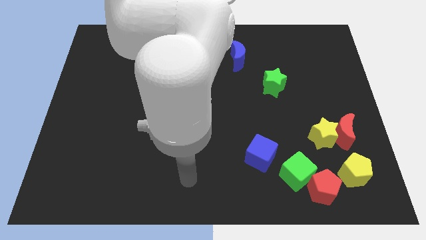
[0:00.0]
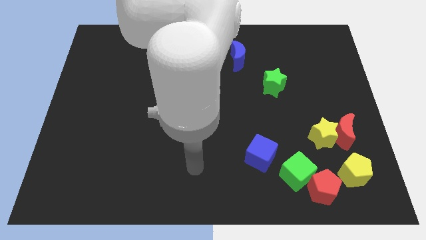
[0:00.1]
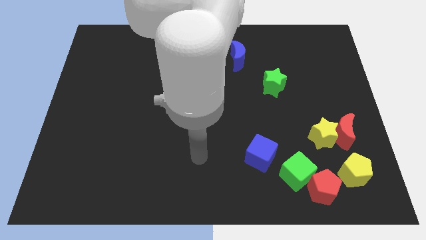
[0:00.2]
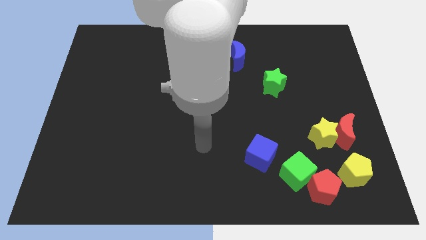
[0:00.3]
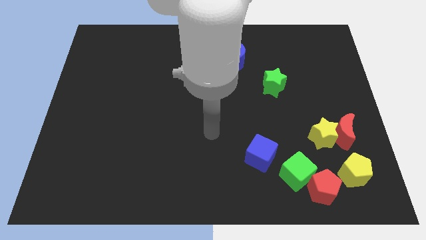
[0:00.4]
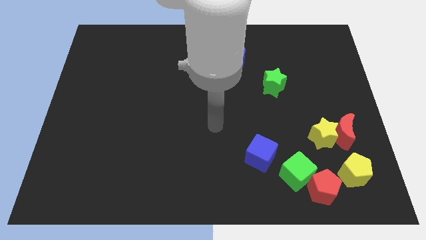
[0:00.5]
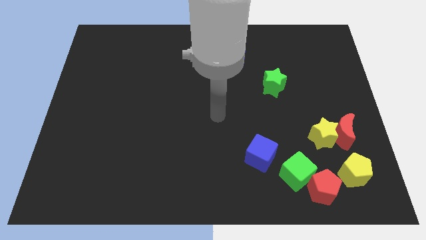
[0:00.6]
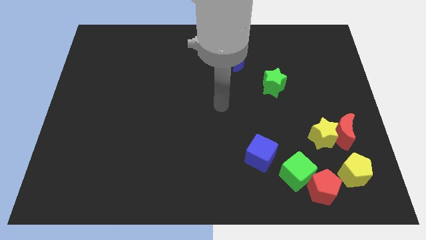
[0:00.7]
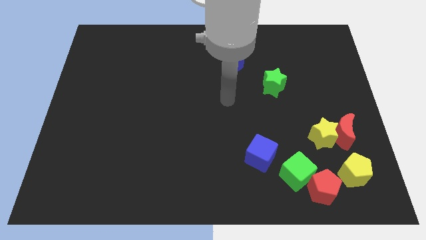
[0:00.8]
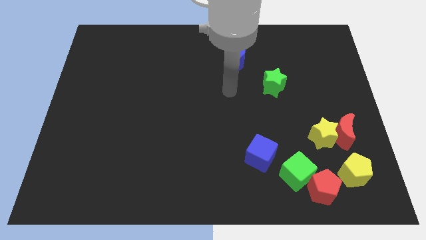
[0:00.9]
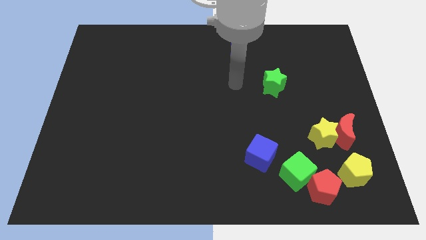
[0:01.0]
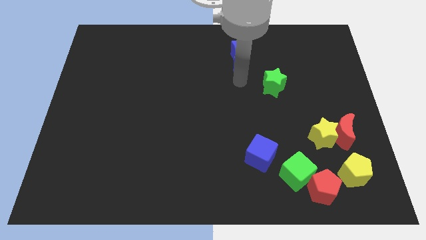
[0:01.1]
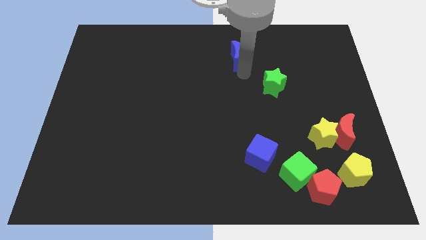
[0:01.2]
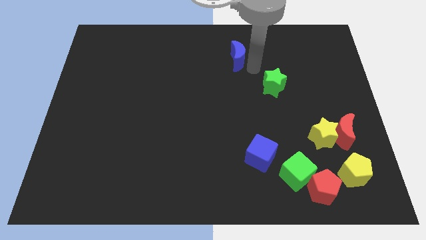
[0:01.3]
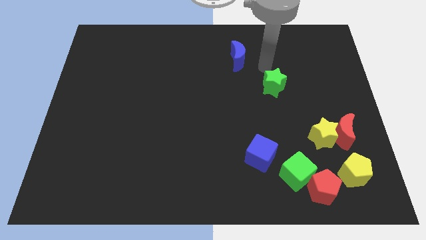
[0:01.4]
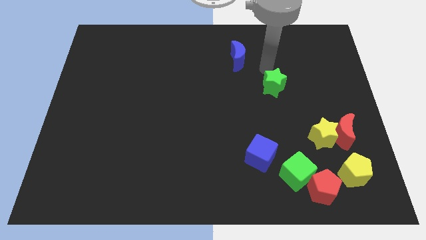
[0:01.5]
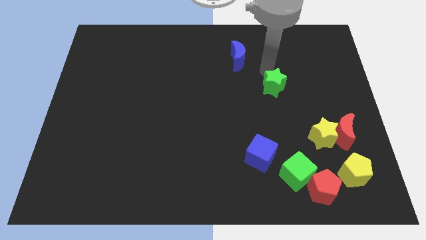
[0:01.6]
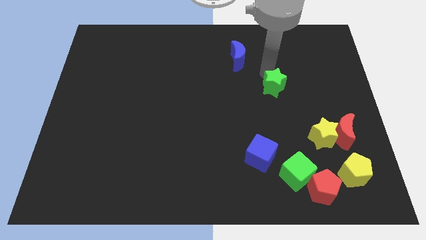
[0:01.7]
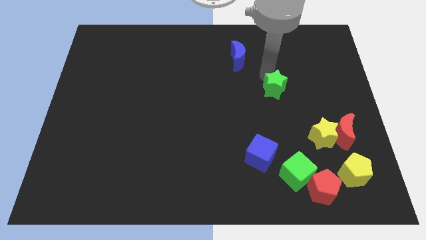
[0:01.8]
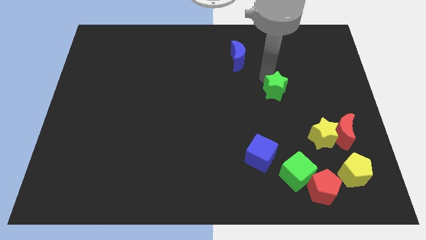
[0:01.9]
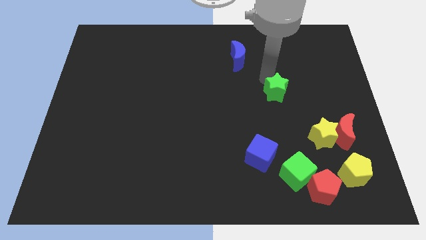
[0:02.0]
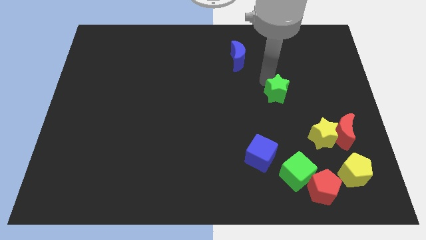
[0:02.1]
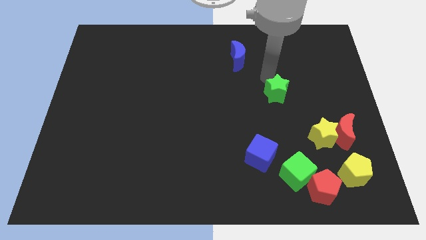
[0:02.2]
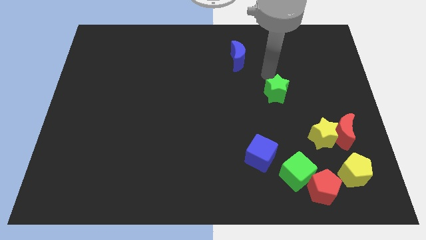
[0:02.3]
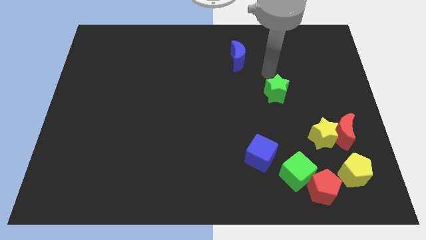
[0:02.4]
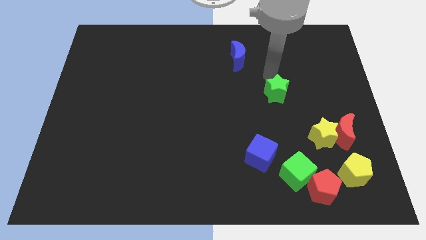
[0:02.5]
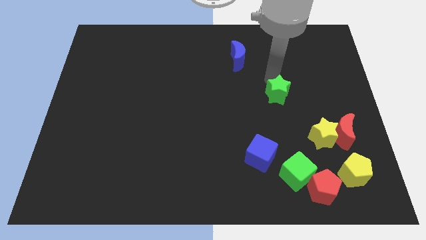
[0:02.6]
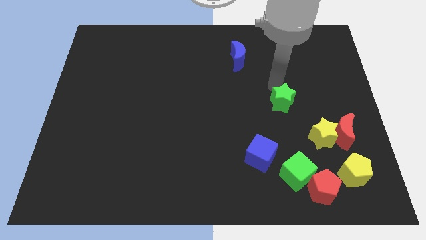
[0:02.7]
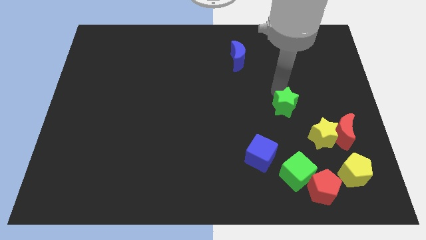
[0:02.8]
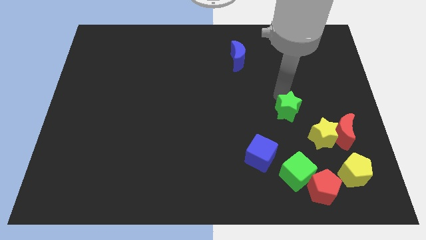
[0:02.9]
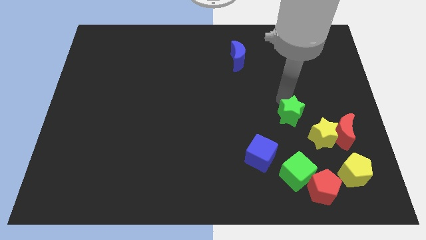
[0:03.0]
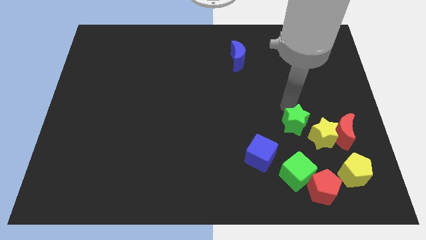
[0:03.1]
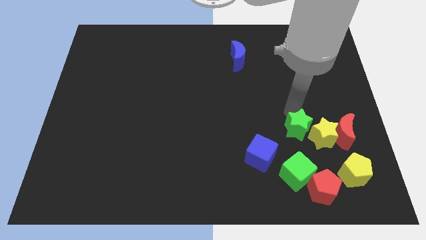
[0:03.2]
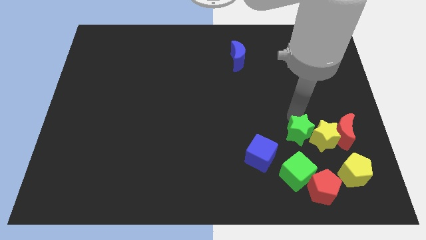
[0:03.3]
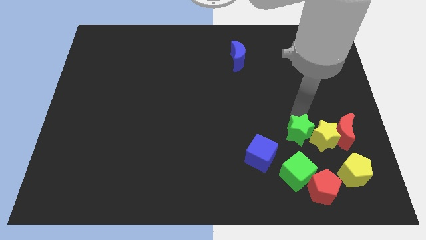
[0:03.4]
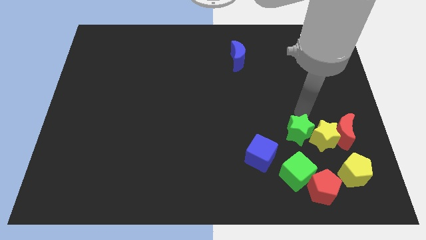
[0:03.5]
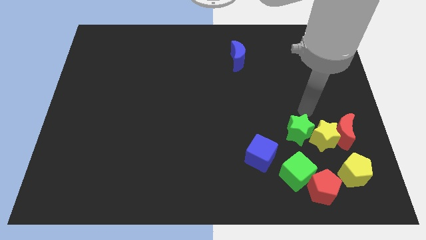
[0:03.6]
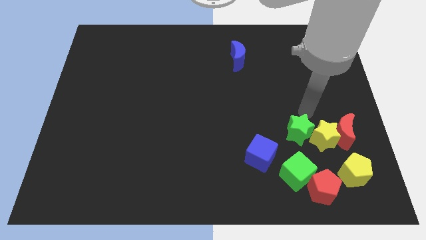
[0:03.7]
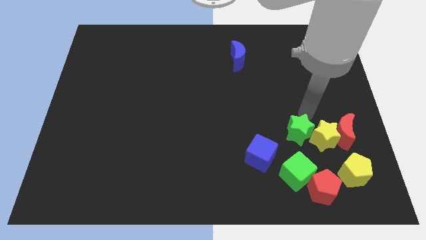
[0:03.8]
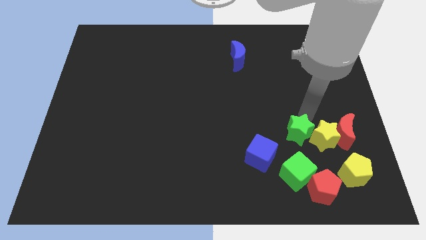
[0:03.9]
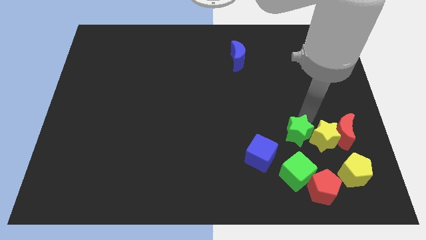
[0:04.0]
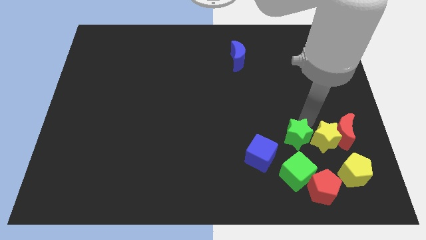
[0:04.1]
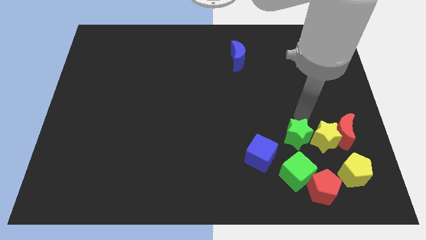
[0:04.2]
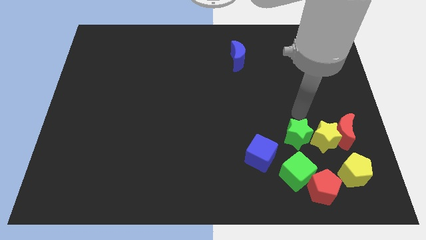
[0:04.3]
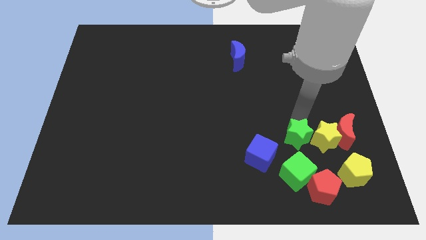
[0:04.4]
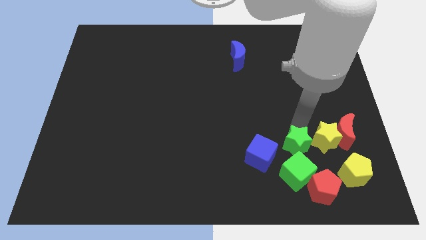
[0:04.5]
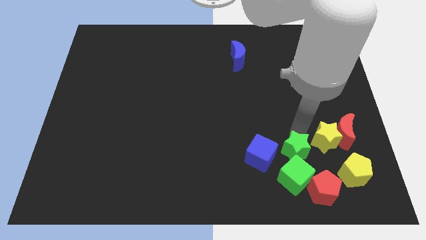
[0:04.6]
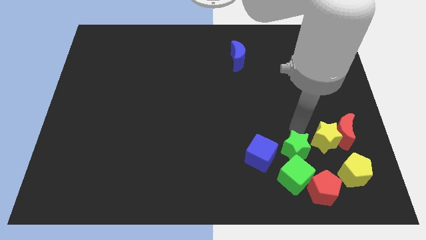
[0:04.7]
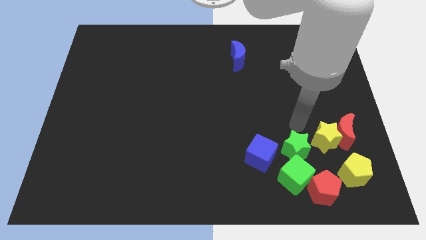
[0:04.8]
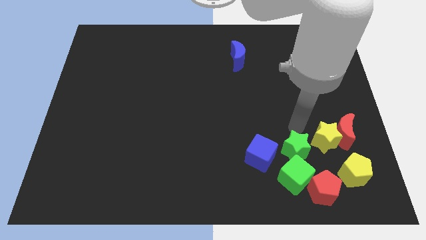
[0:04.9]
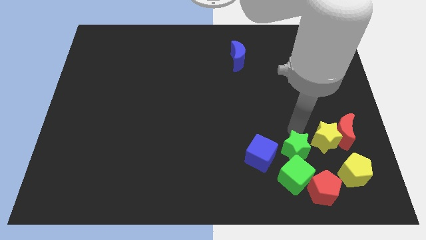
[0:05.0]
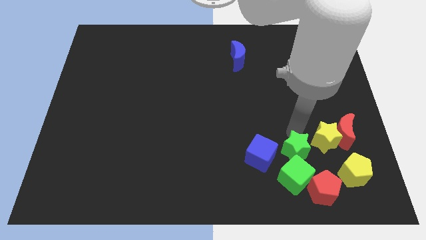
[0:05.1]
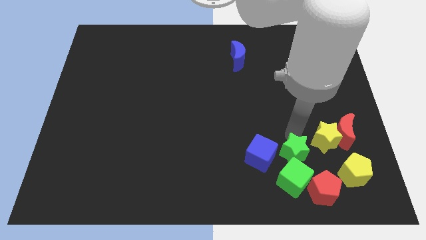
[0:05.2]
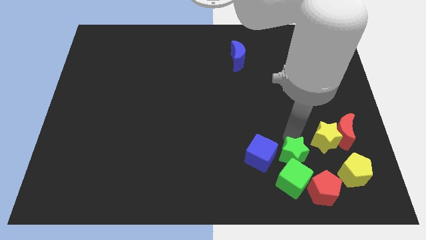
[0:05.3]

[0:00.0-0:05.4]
move the green star towards the green cube

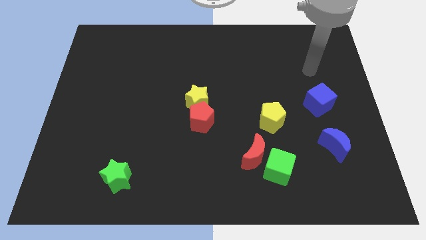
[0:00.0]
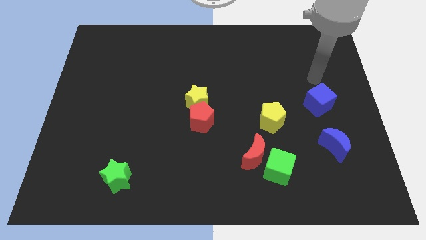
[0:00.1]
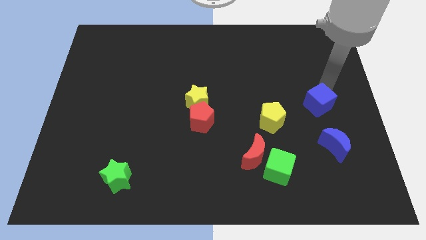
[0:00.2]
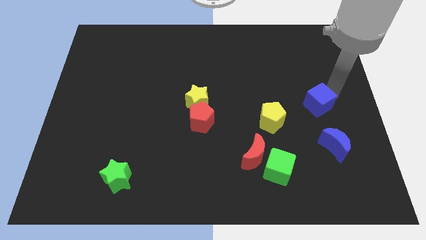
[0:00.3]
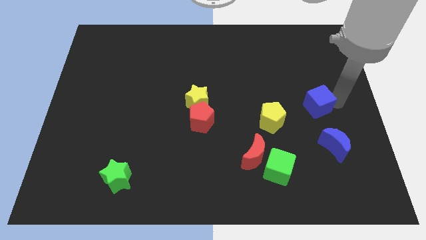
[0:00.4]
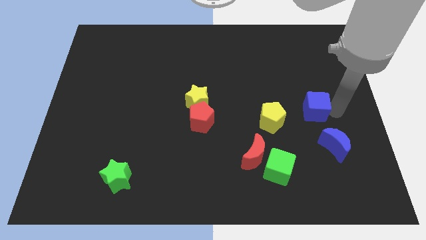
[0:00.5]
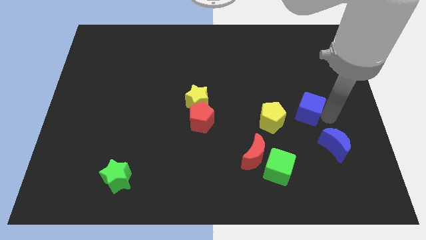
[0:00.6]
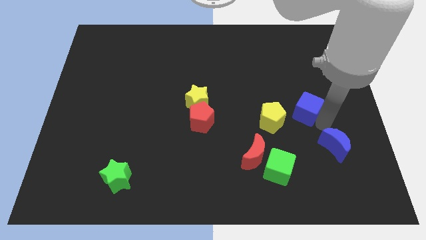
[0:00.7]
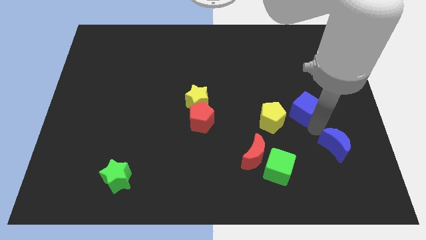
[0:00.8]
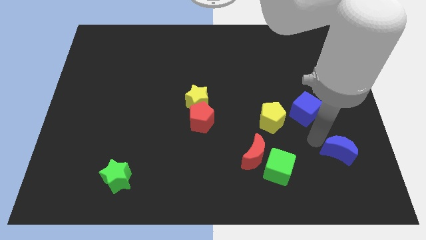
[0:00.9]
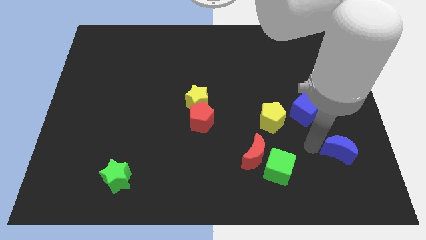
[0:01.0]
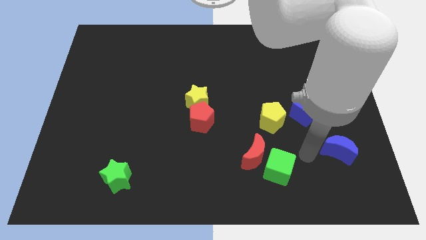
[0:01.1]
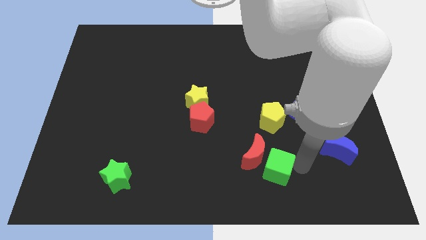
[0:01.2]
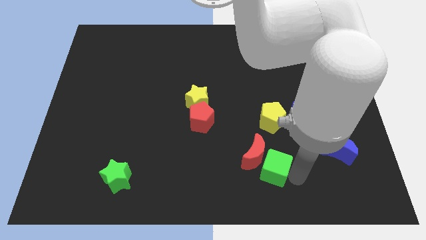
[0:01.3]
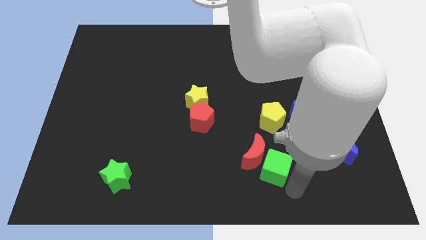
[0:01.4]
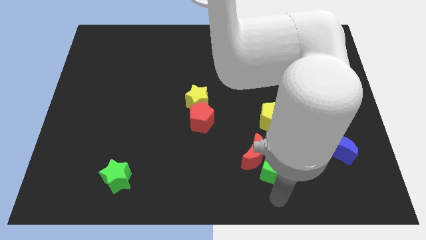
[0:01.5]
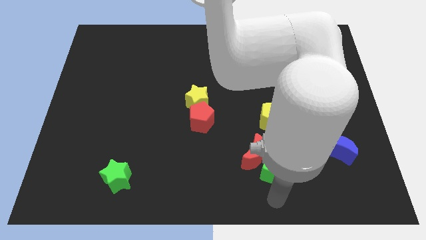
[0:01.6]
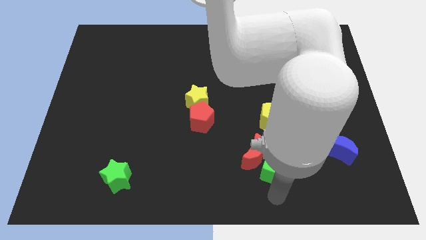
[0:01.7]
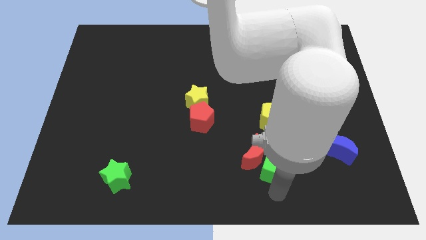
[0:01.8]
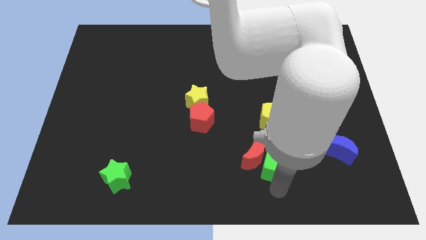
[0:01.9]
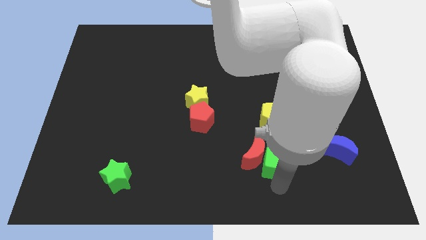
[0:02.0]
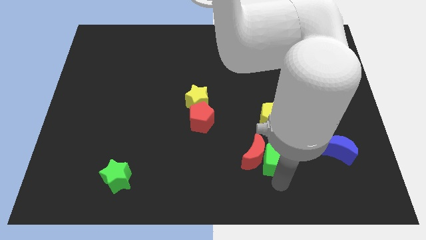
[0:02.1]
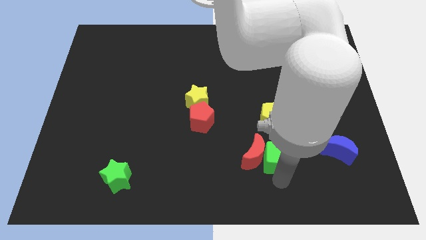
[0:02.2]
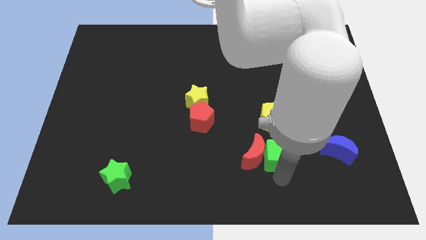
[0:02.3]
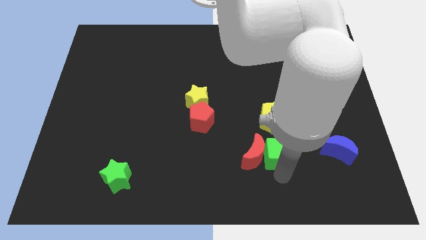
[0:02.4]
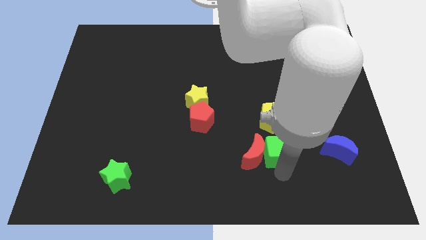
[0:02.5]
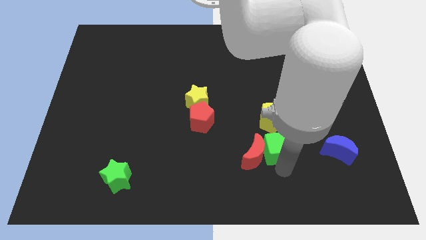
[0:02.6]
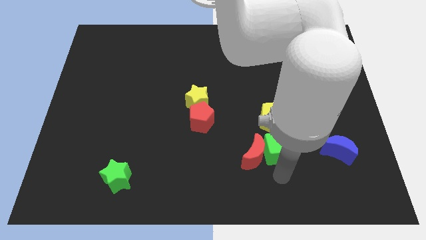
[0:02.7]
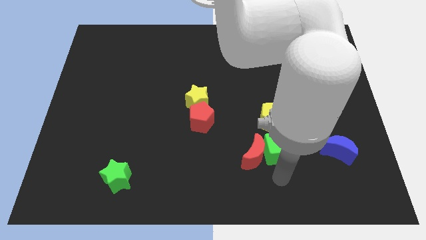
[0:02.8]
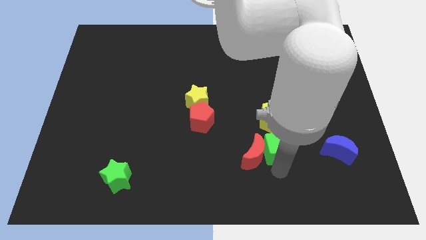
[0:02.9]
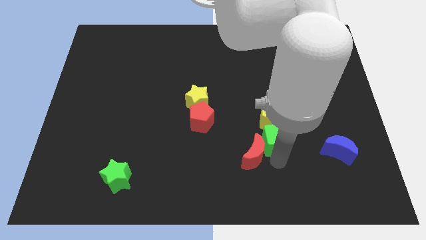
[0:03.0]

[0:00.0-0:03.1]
put the green cube towards the yellow pentagon
